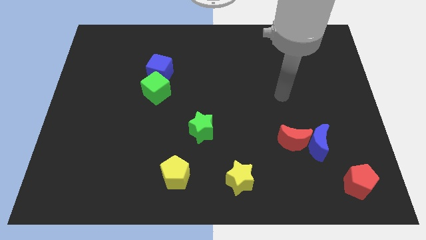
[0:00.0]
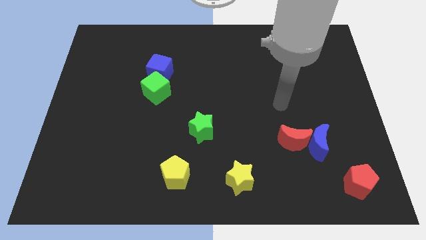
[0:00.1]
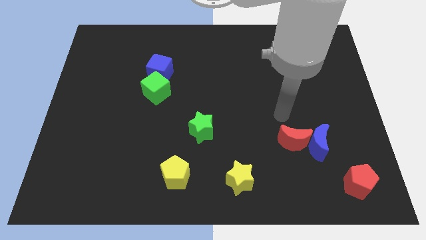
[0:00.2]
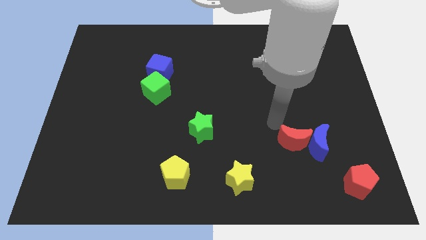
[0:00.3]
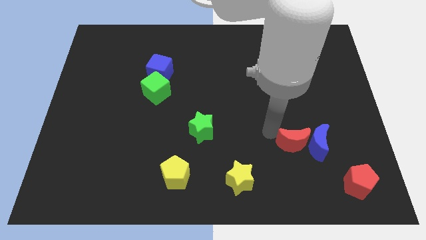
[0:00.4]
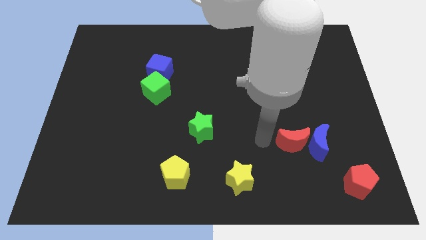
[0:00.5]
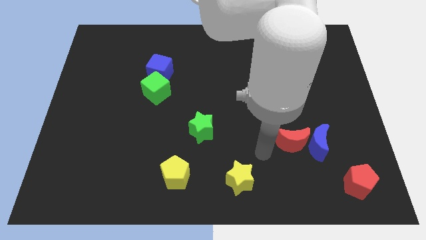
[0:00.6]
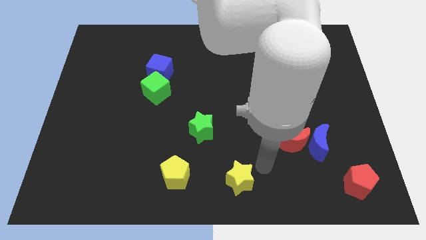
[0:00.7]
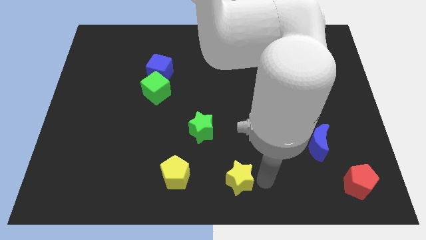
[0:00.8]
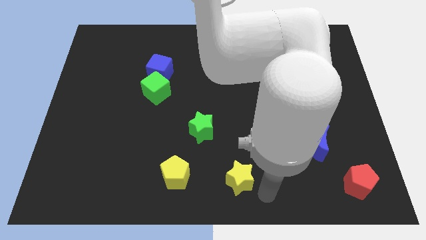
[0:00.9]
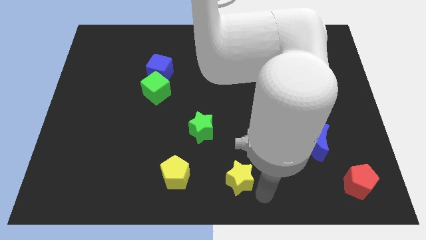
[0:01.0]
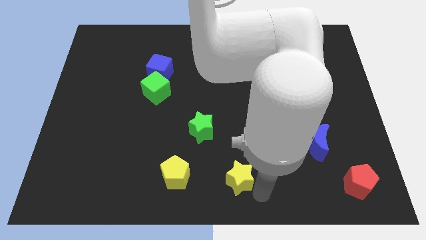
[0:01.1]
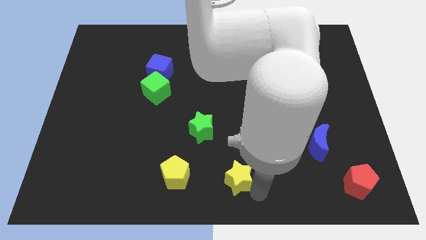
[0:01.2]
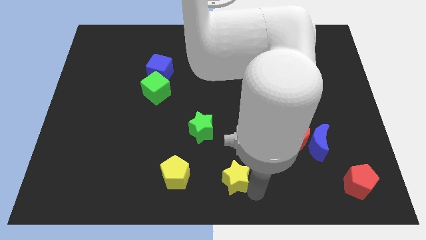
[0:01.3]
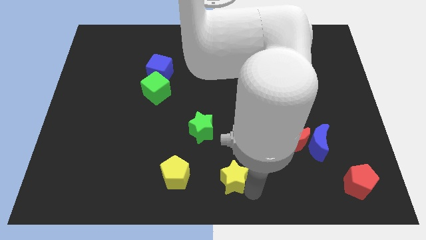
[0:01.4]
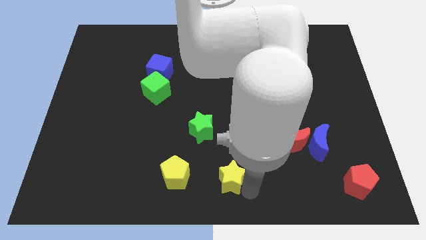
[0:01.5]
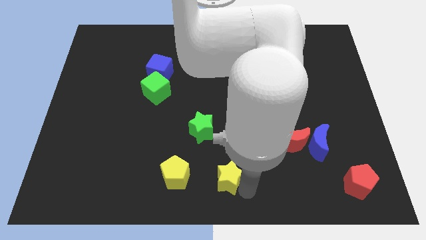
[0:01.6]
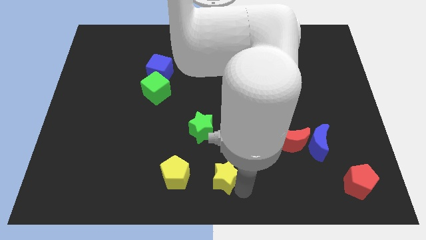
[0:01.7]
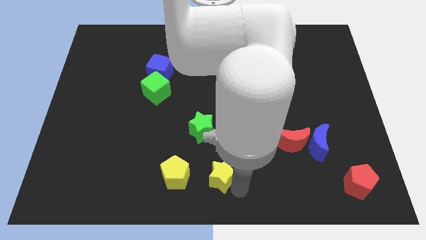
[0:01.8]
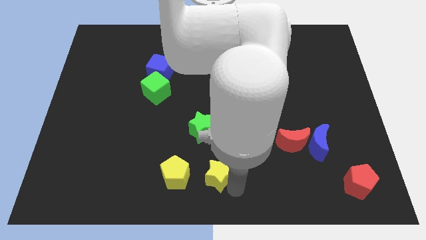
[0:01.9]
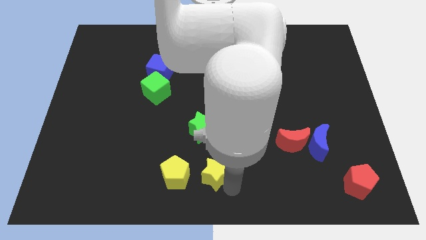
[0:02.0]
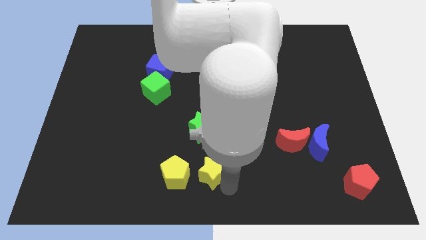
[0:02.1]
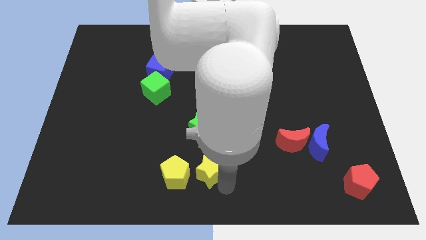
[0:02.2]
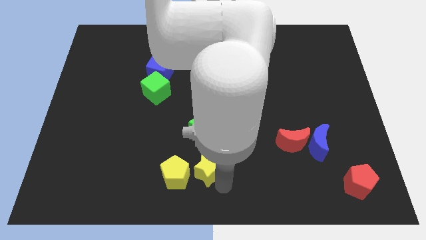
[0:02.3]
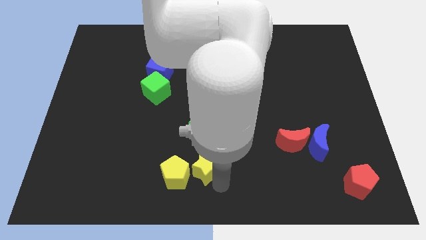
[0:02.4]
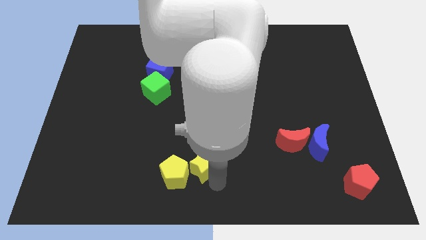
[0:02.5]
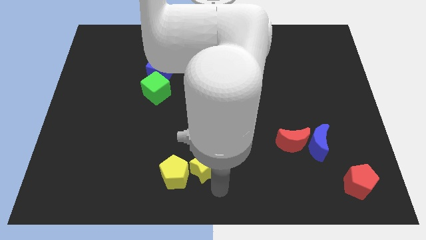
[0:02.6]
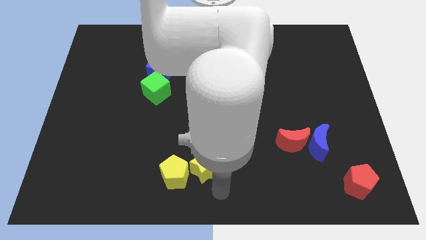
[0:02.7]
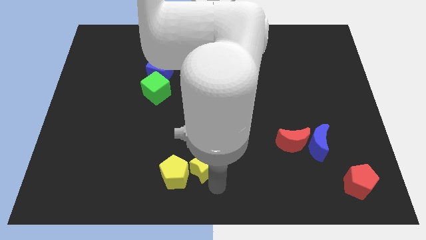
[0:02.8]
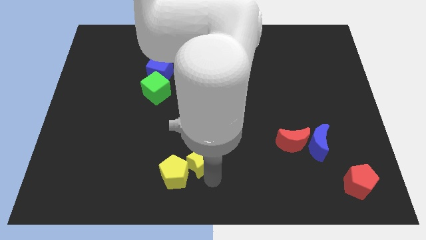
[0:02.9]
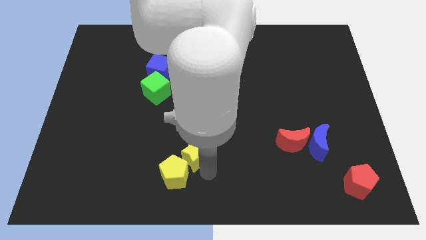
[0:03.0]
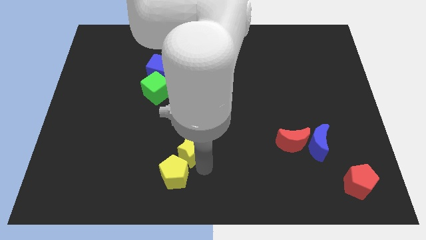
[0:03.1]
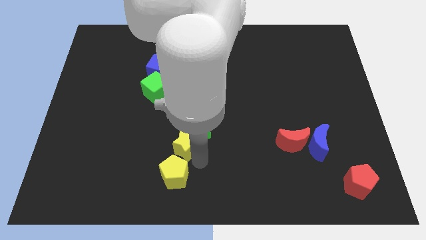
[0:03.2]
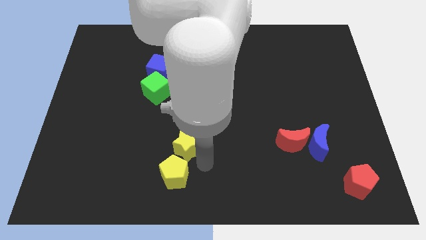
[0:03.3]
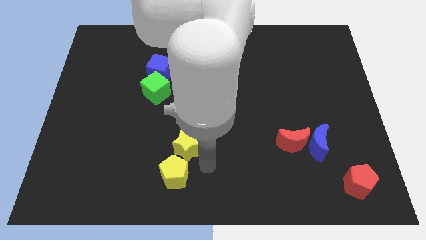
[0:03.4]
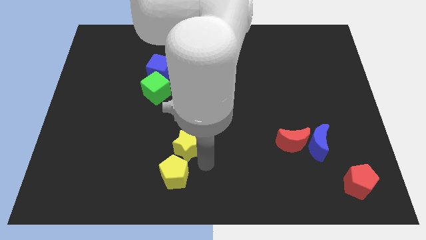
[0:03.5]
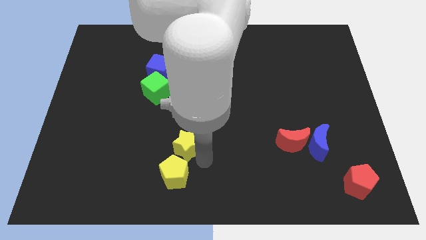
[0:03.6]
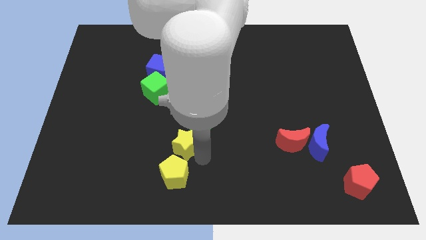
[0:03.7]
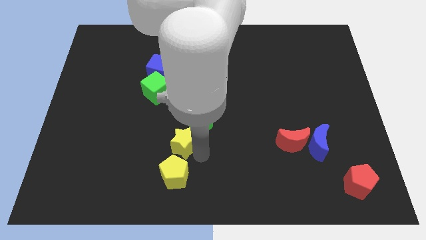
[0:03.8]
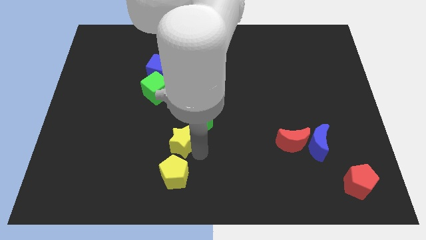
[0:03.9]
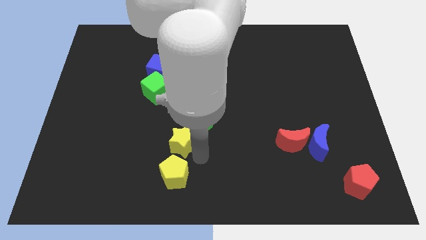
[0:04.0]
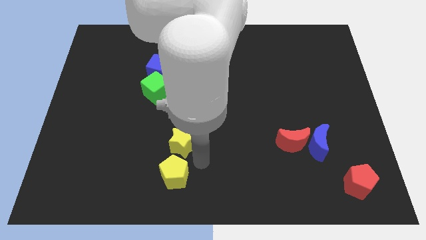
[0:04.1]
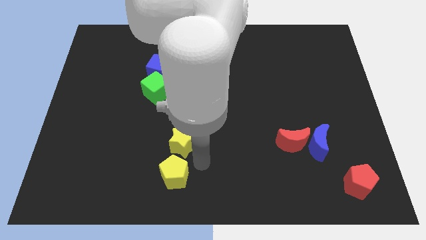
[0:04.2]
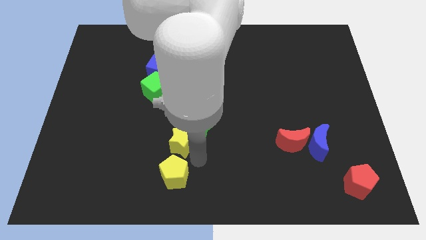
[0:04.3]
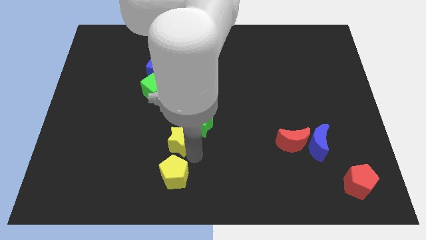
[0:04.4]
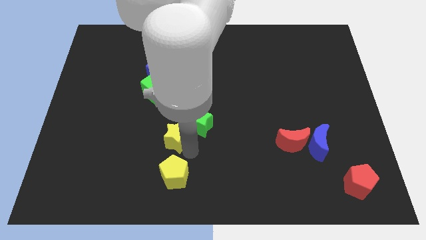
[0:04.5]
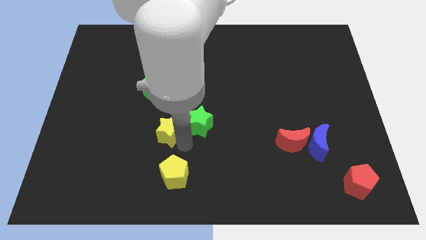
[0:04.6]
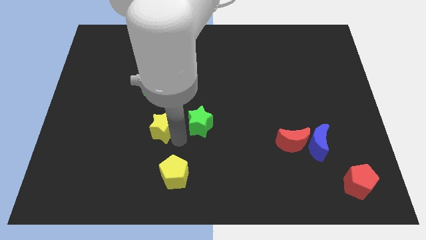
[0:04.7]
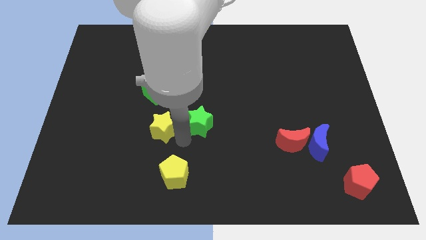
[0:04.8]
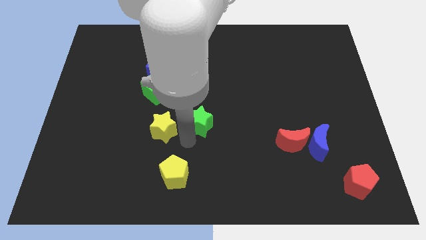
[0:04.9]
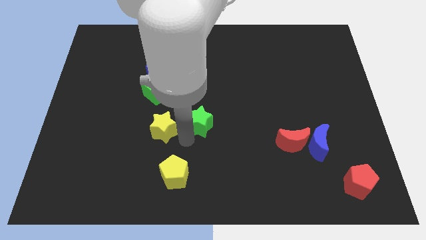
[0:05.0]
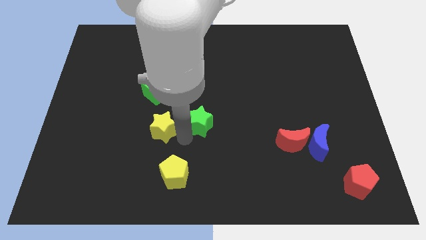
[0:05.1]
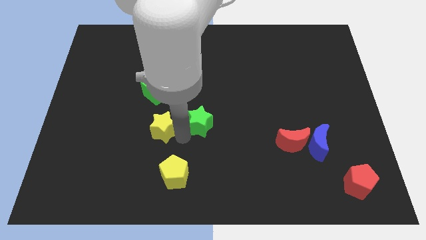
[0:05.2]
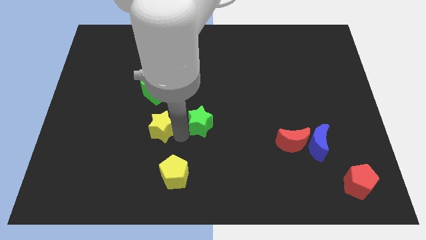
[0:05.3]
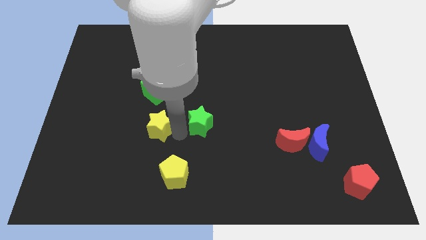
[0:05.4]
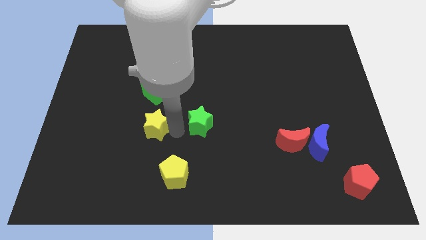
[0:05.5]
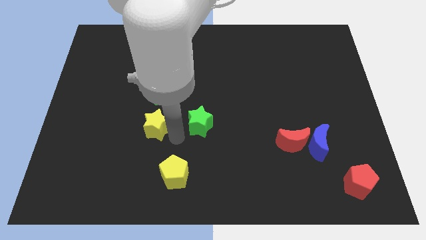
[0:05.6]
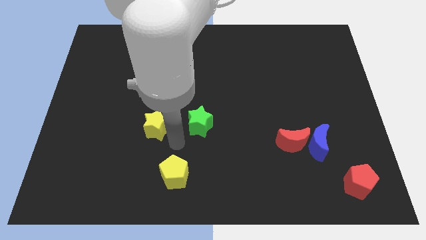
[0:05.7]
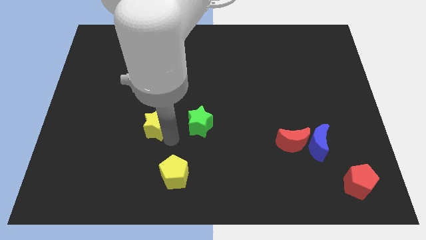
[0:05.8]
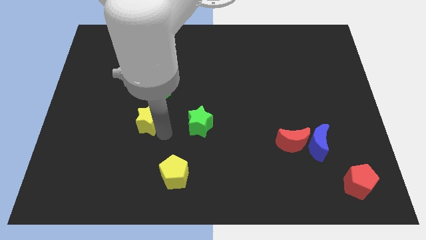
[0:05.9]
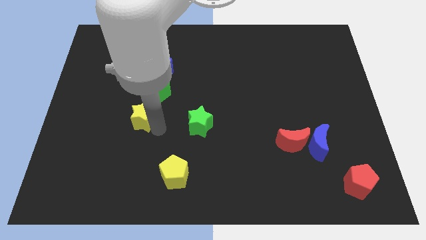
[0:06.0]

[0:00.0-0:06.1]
slide the yellow star diagonally down and to the left of the green cube

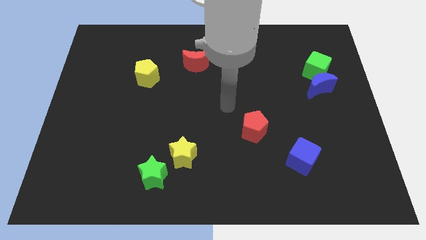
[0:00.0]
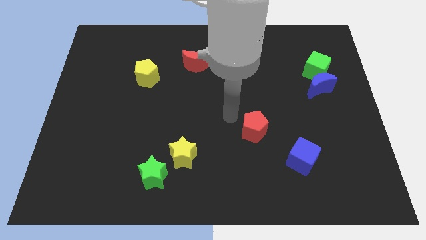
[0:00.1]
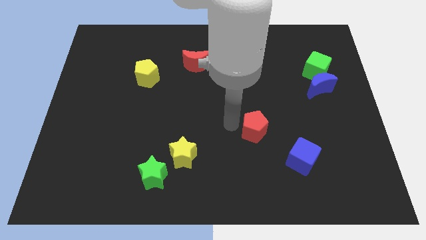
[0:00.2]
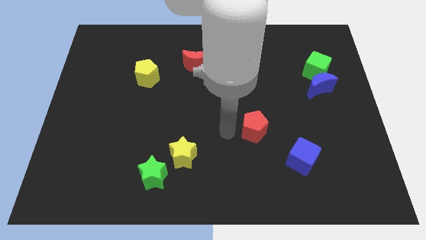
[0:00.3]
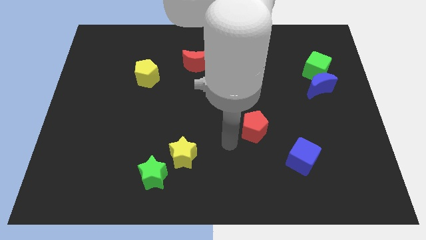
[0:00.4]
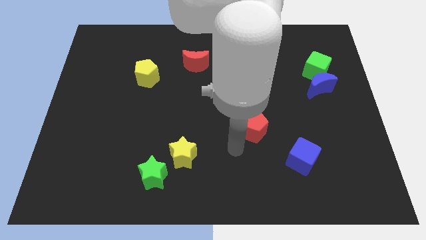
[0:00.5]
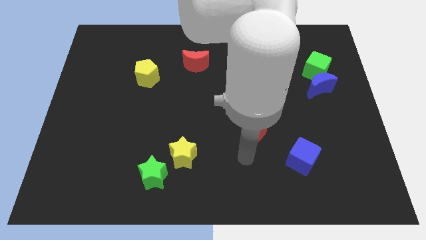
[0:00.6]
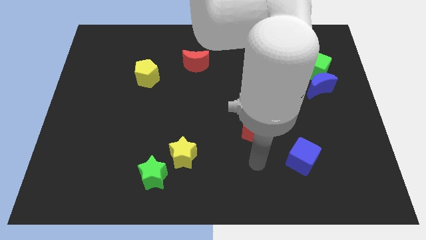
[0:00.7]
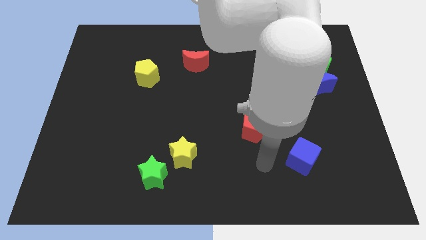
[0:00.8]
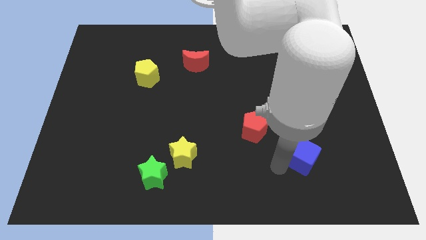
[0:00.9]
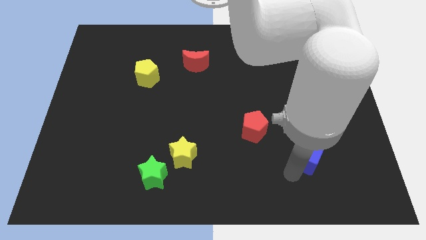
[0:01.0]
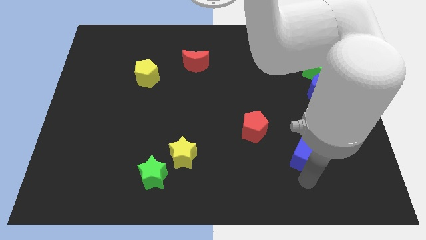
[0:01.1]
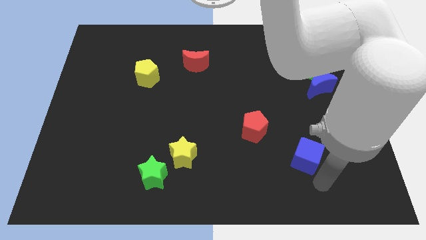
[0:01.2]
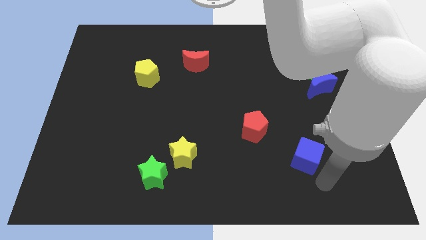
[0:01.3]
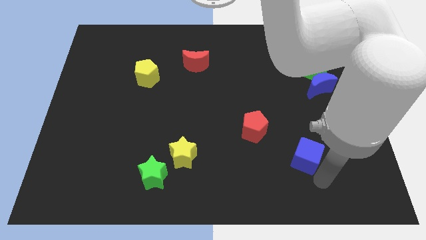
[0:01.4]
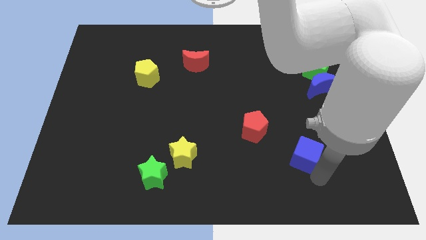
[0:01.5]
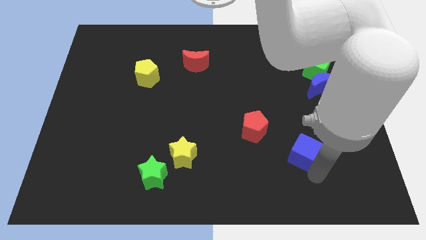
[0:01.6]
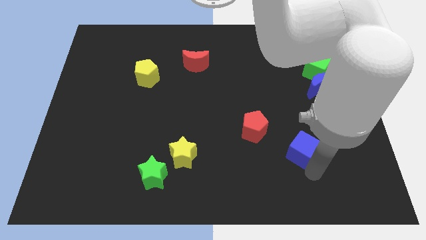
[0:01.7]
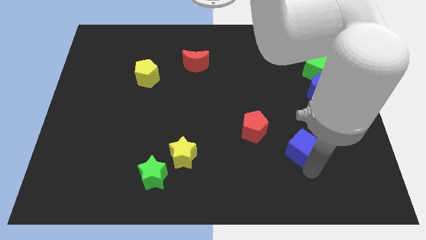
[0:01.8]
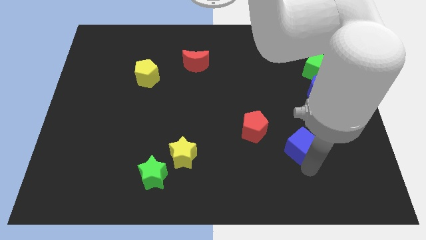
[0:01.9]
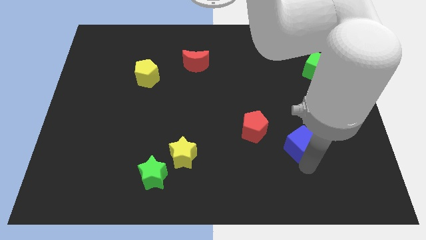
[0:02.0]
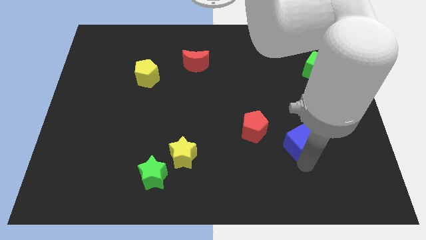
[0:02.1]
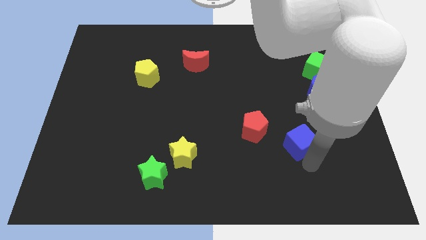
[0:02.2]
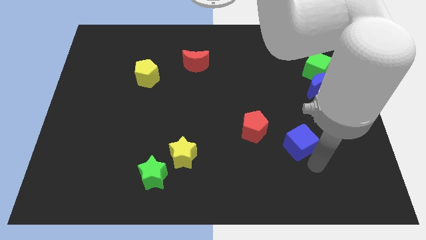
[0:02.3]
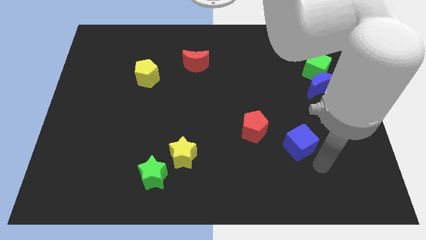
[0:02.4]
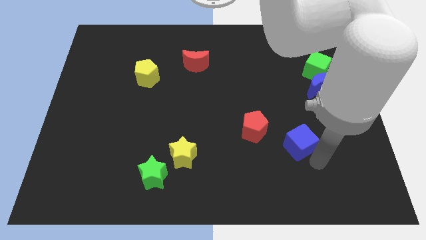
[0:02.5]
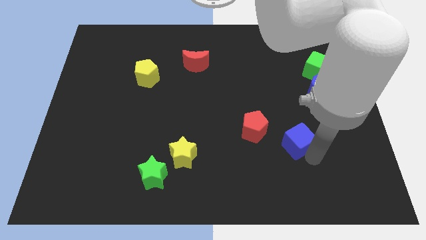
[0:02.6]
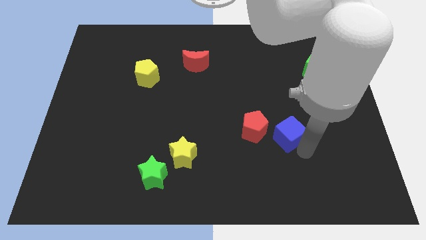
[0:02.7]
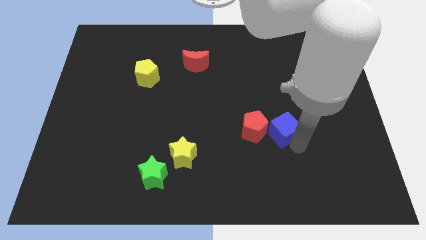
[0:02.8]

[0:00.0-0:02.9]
push the blue cube to the top right of the red pentagon
